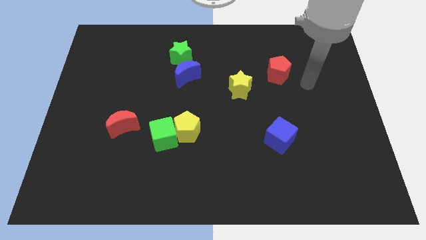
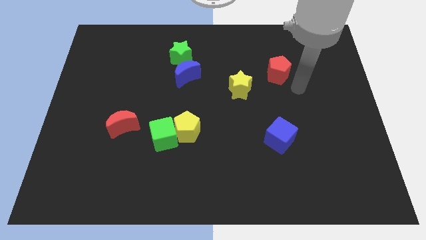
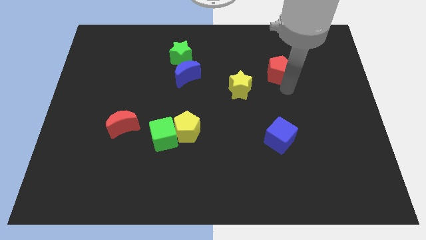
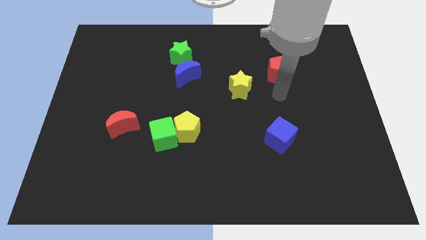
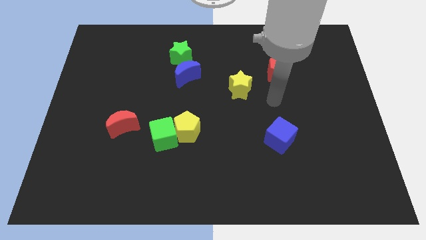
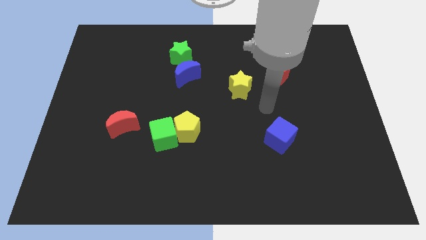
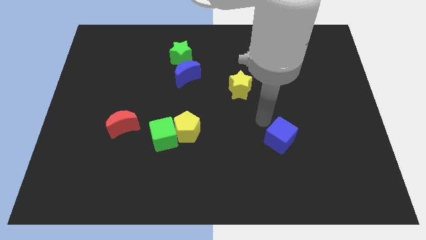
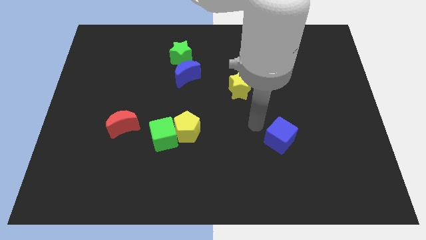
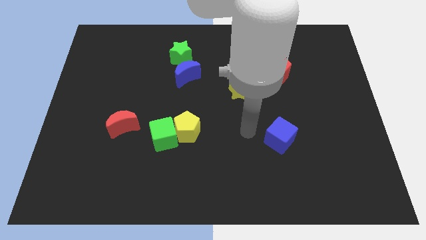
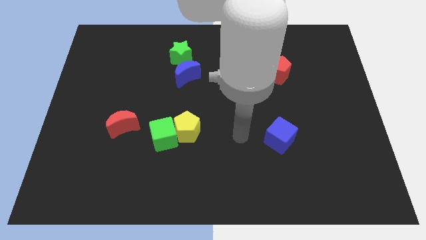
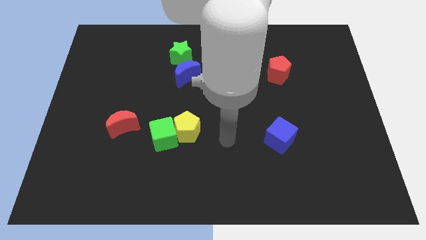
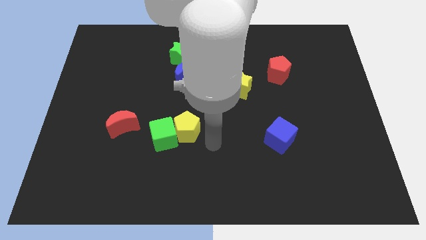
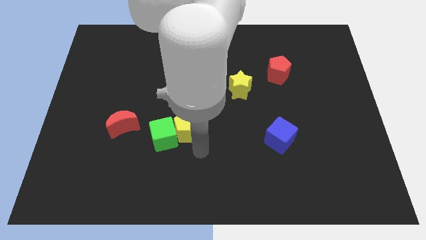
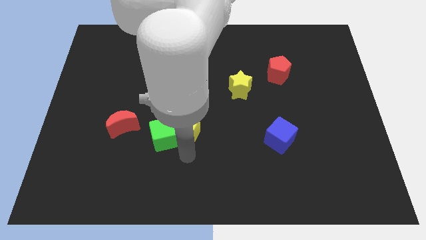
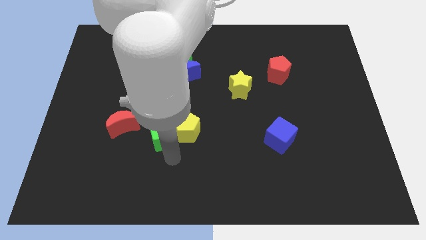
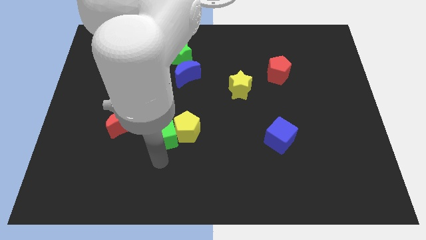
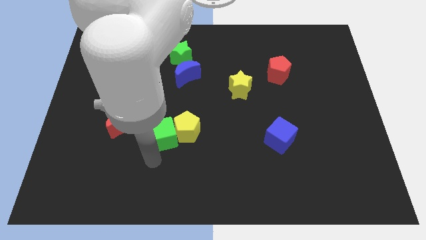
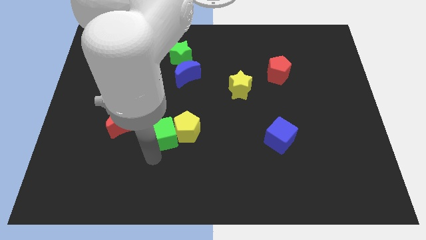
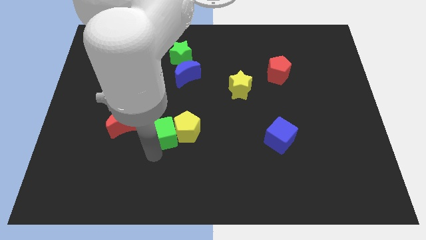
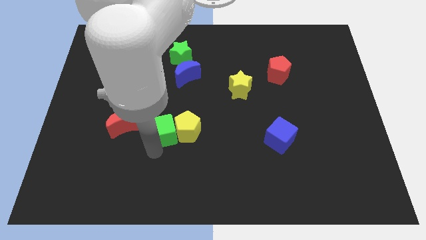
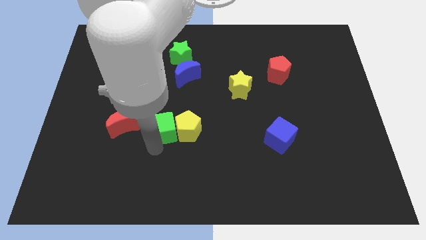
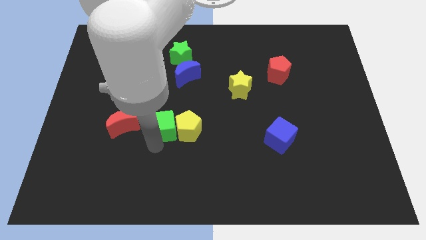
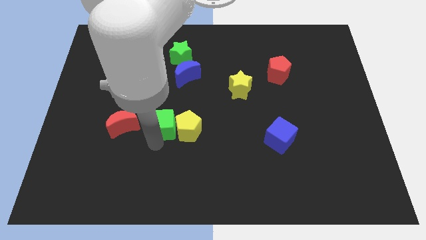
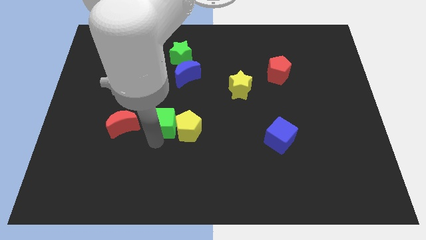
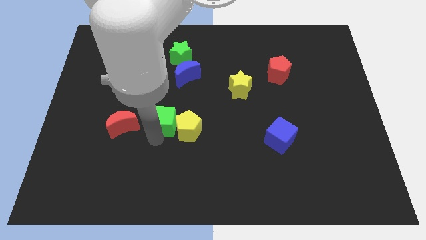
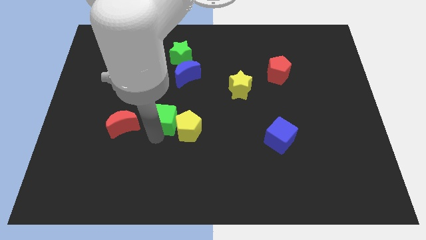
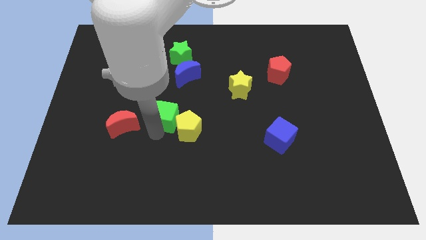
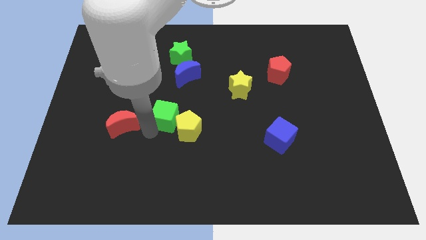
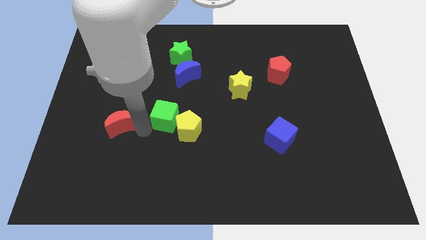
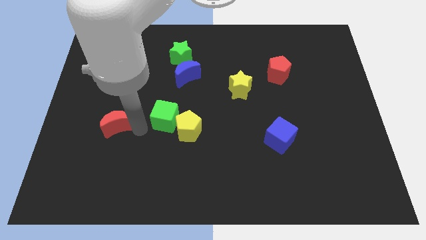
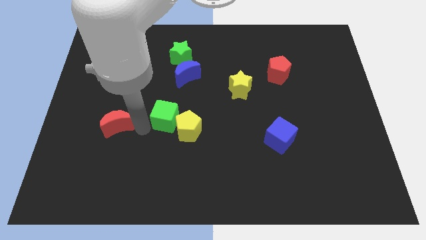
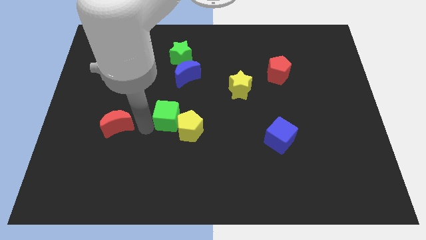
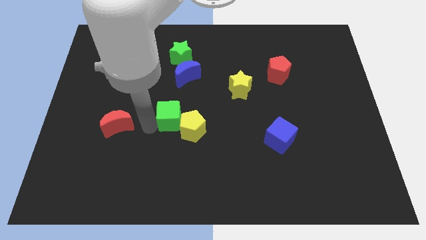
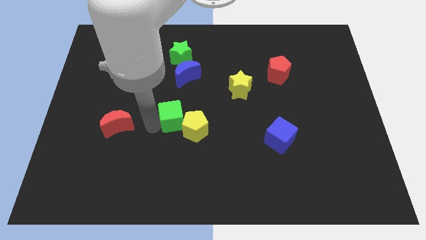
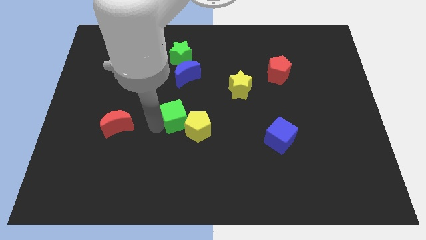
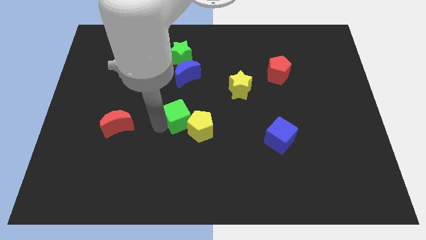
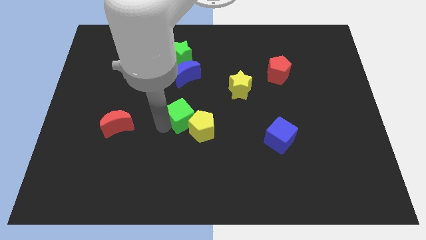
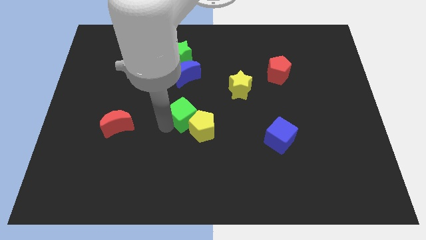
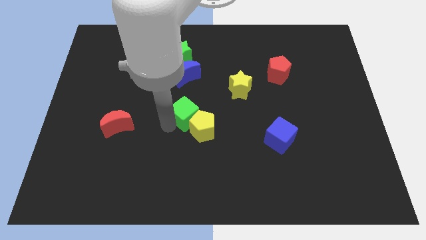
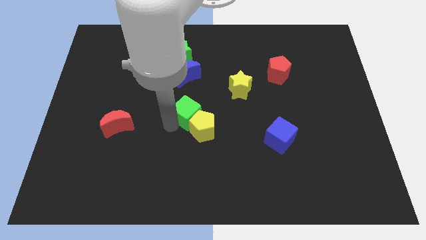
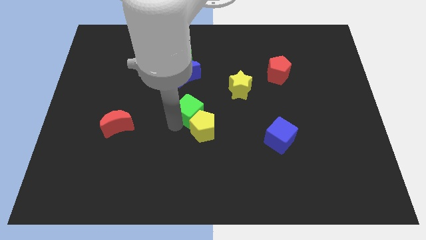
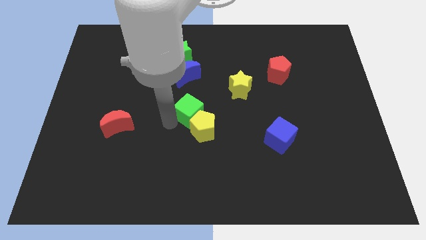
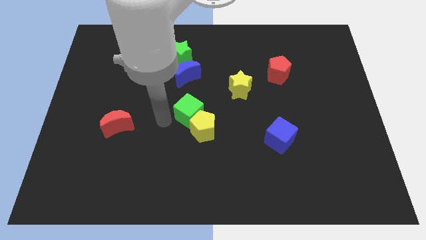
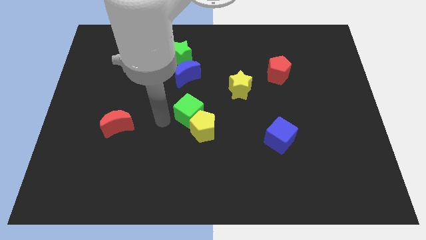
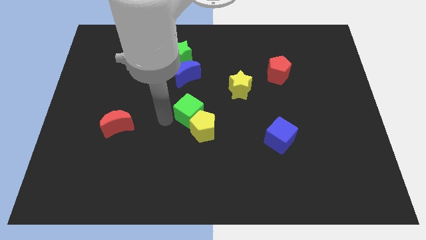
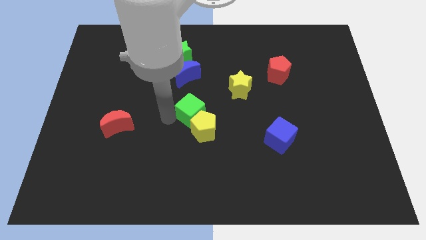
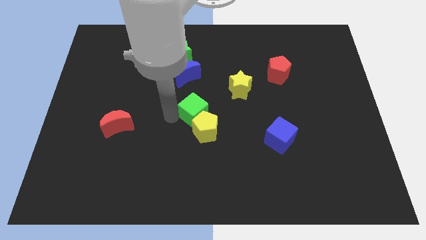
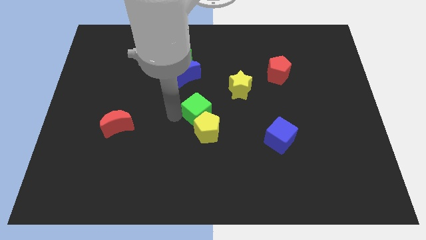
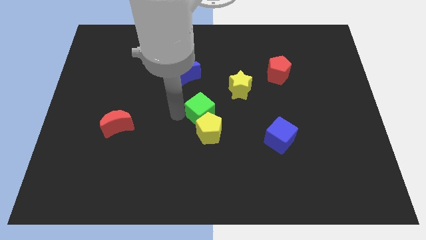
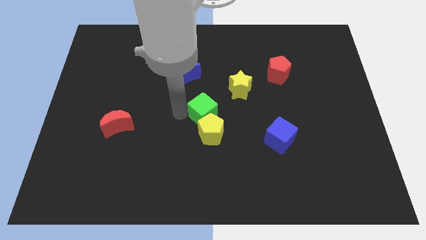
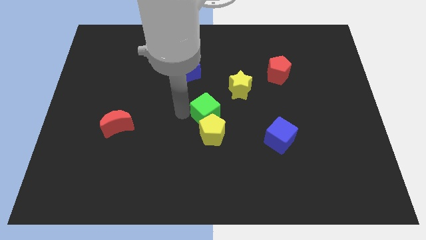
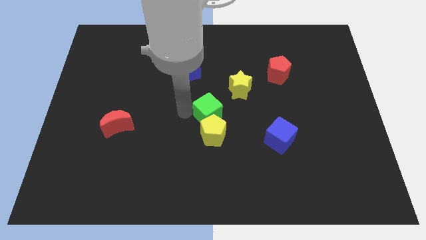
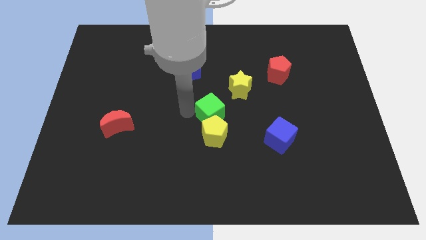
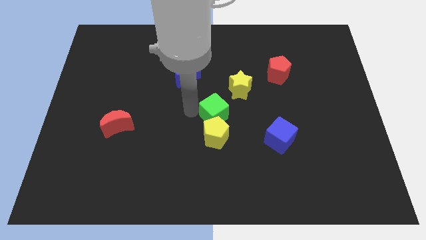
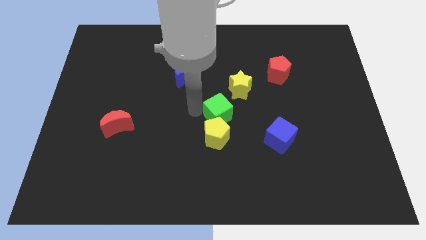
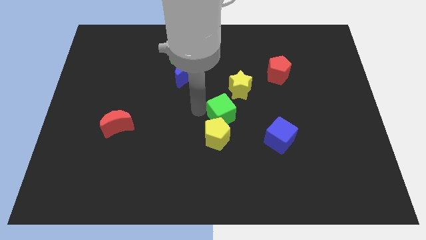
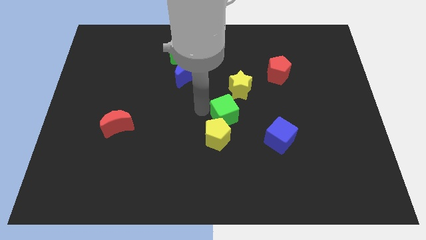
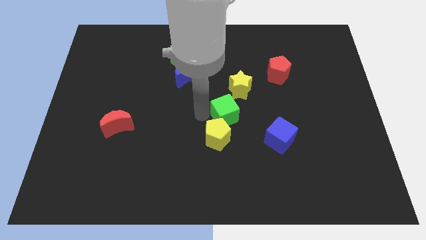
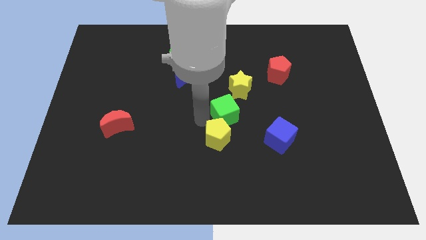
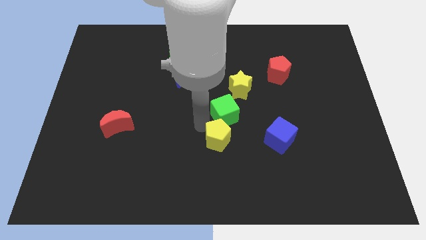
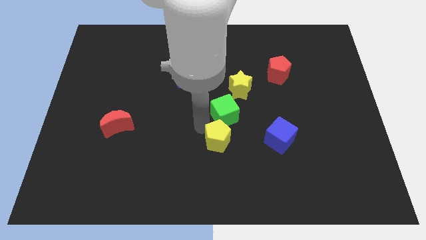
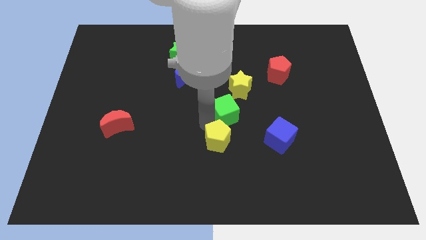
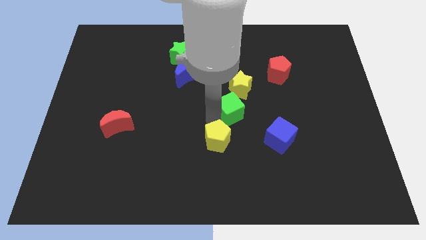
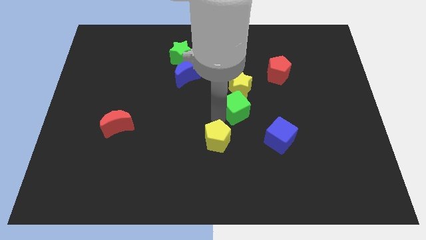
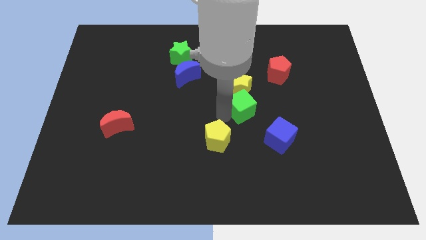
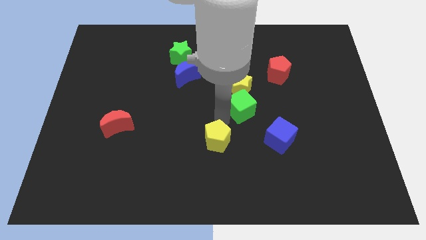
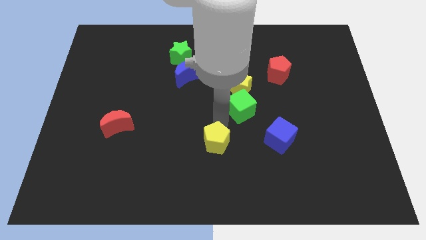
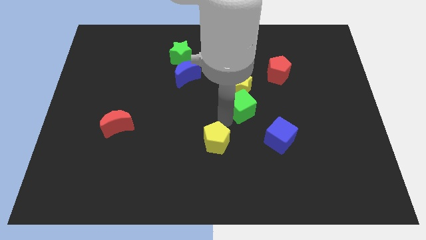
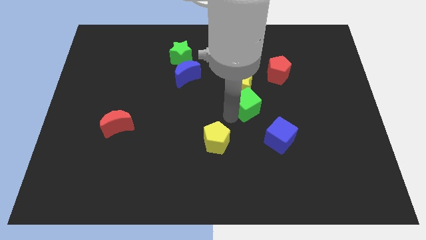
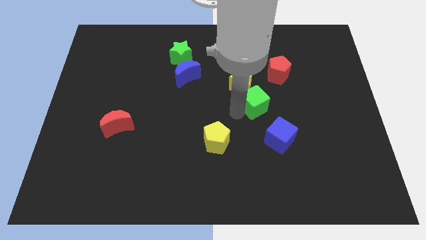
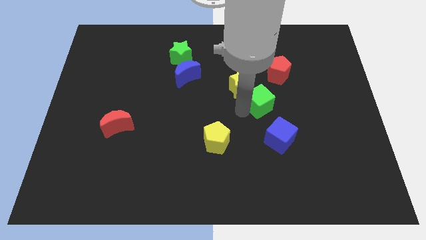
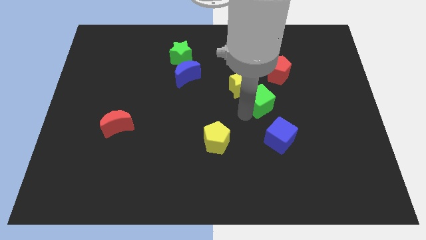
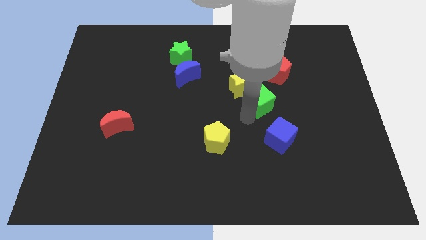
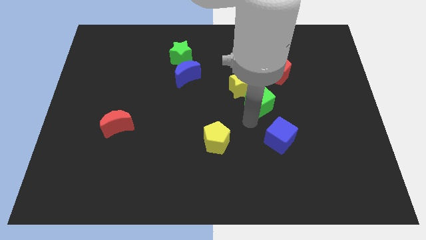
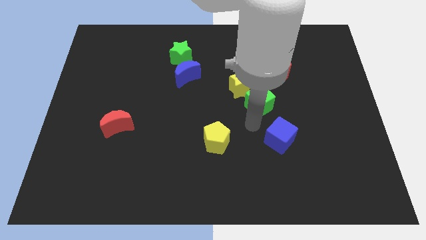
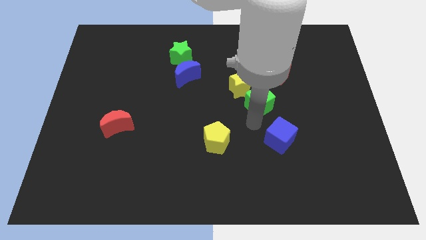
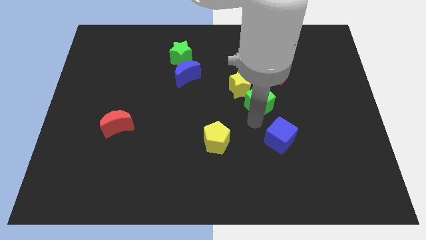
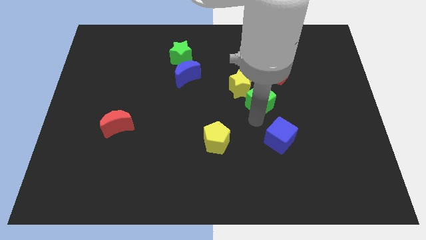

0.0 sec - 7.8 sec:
move the green cube to the right side of the yellow star
